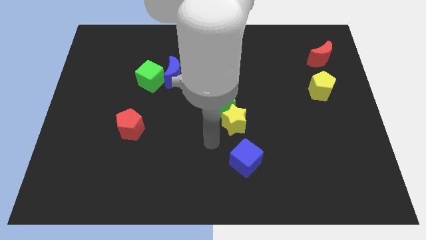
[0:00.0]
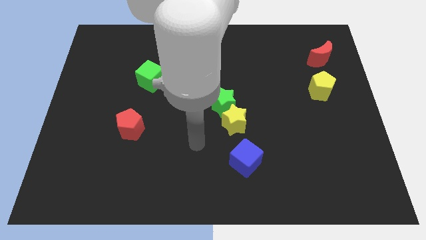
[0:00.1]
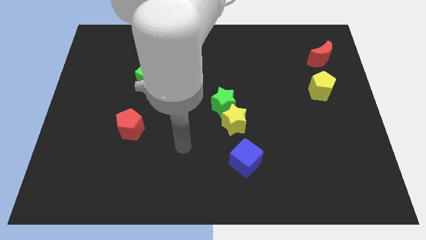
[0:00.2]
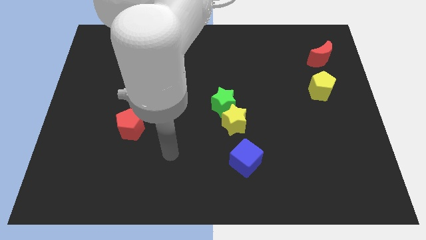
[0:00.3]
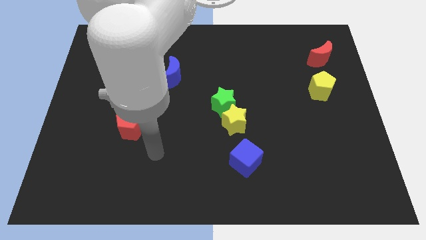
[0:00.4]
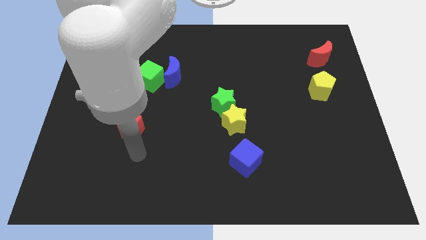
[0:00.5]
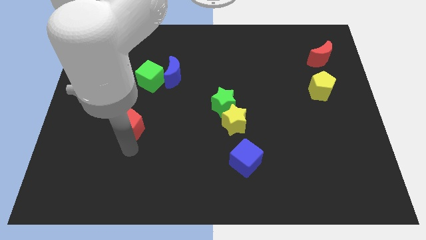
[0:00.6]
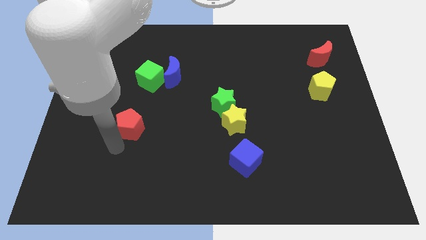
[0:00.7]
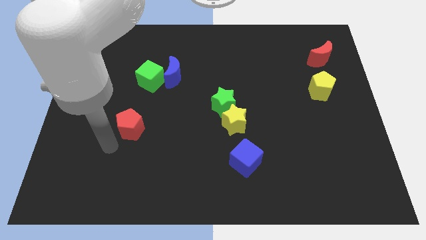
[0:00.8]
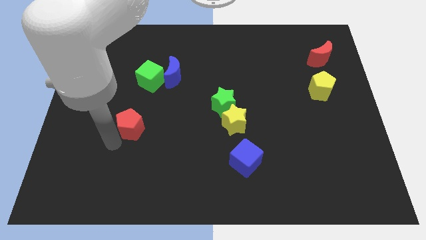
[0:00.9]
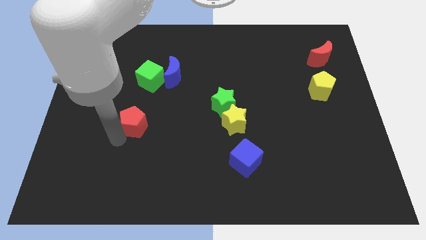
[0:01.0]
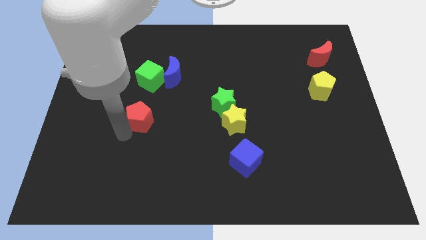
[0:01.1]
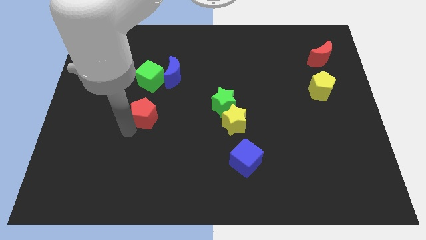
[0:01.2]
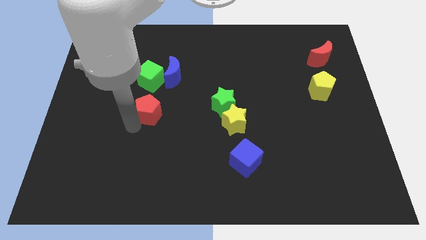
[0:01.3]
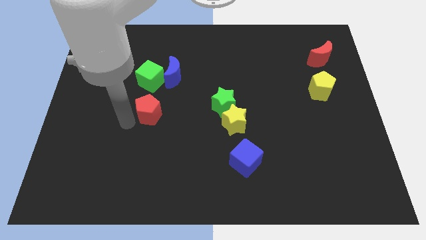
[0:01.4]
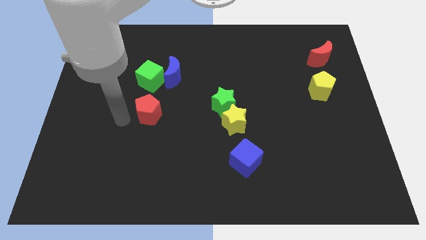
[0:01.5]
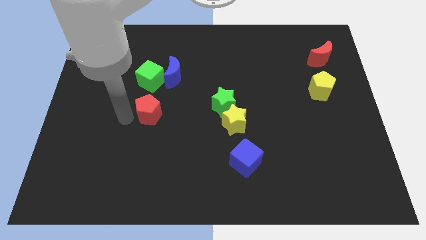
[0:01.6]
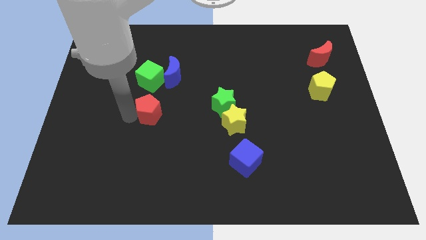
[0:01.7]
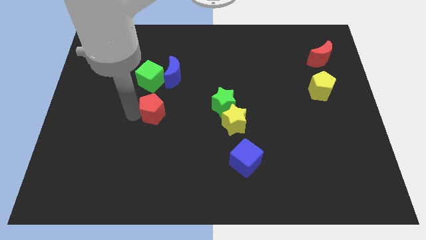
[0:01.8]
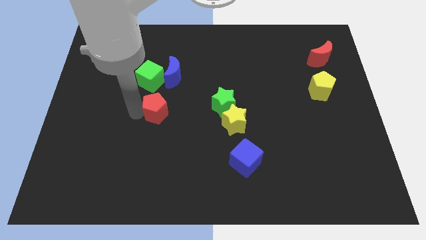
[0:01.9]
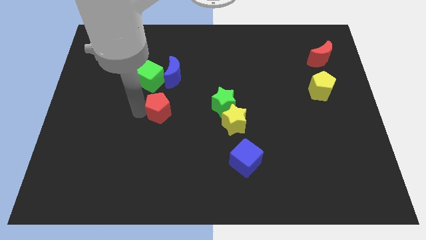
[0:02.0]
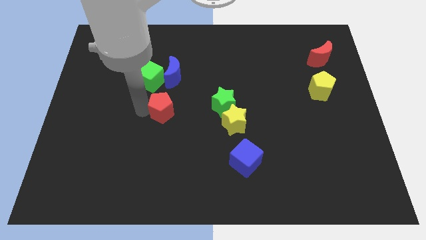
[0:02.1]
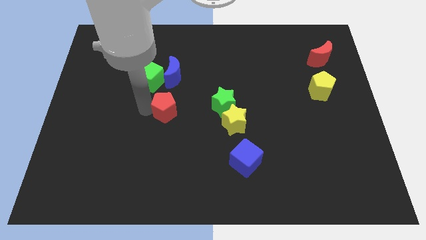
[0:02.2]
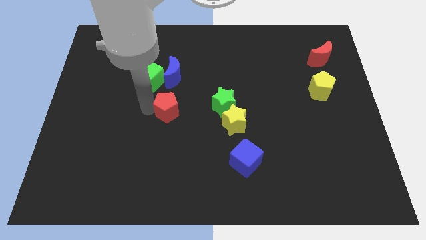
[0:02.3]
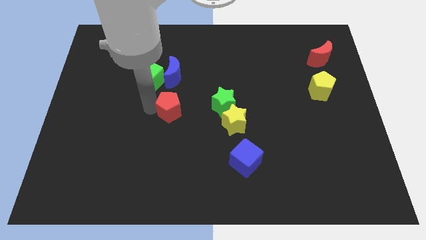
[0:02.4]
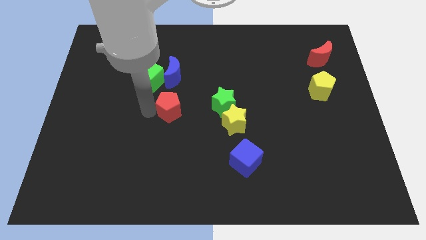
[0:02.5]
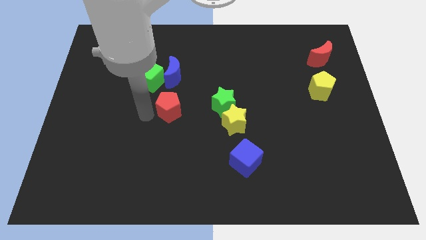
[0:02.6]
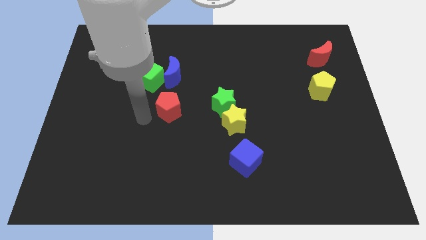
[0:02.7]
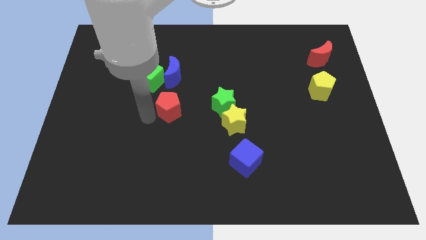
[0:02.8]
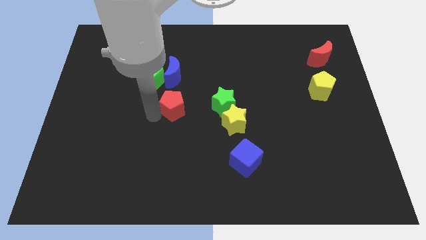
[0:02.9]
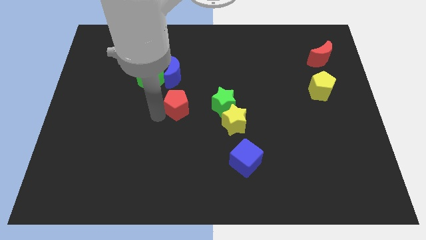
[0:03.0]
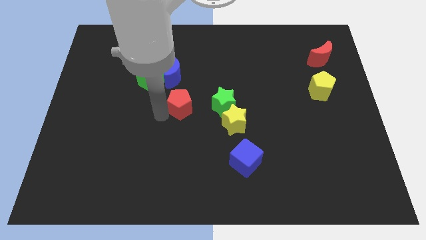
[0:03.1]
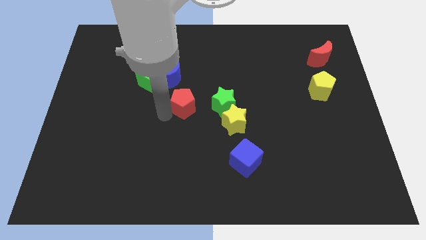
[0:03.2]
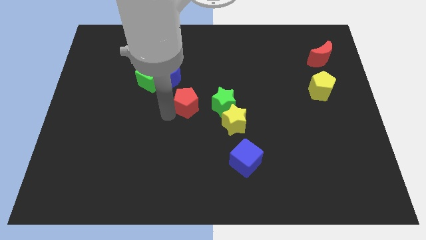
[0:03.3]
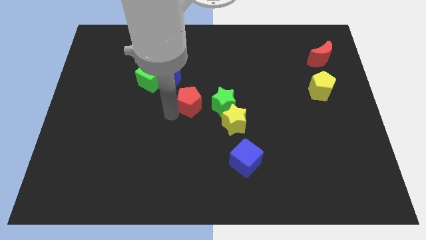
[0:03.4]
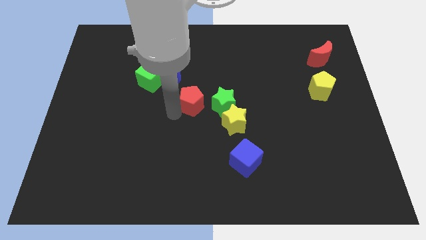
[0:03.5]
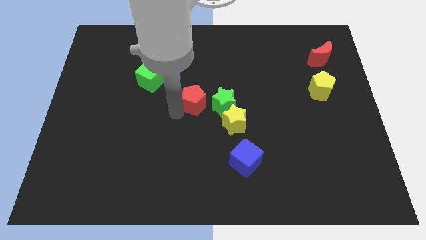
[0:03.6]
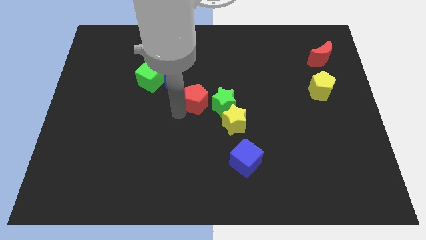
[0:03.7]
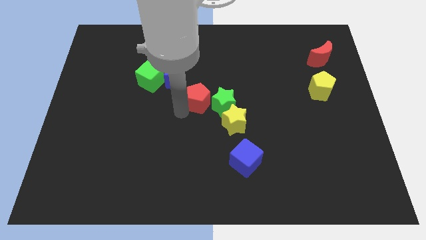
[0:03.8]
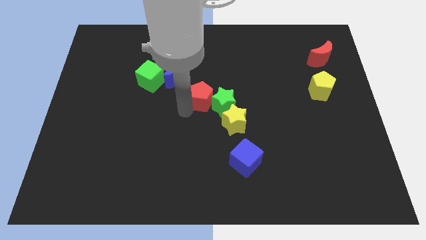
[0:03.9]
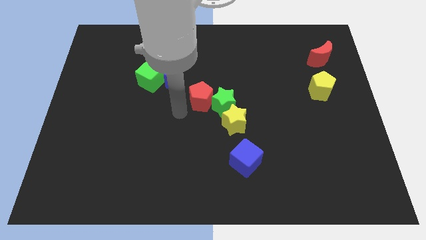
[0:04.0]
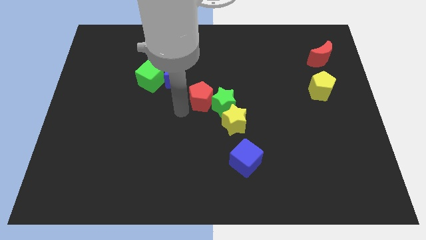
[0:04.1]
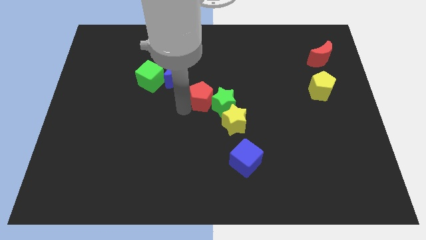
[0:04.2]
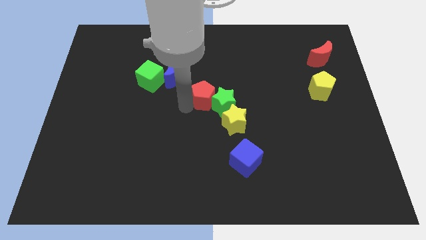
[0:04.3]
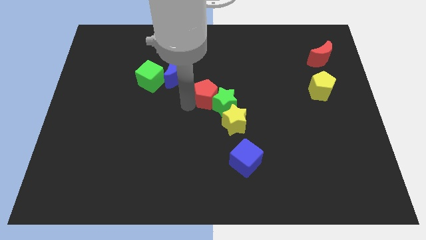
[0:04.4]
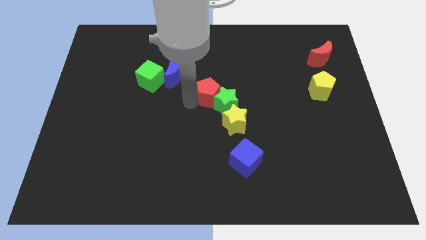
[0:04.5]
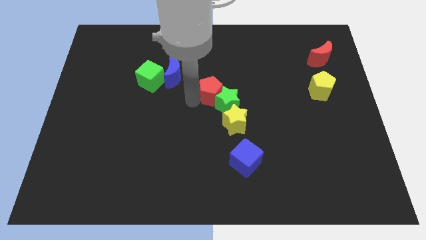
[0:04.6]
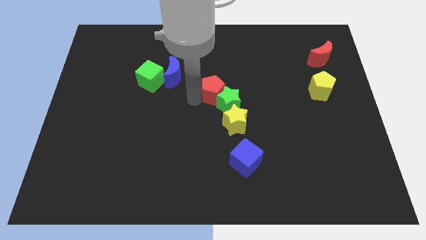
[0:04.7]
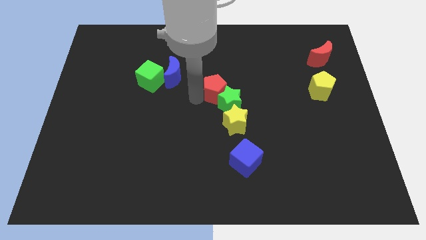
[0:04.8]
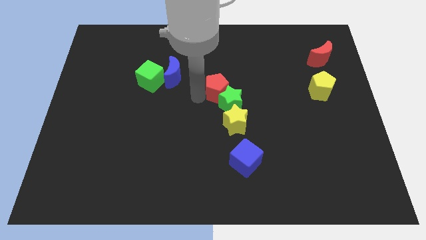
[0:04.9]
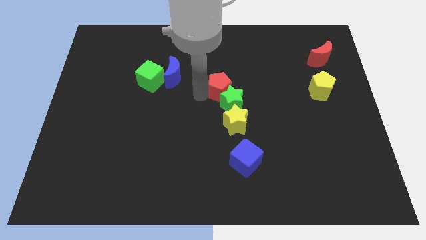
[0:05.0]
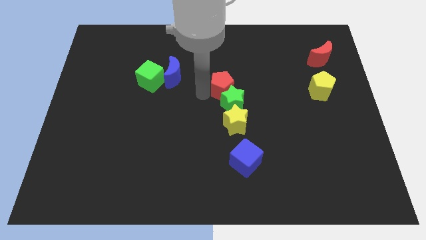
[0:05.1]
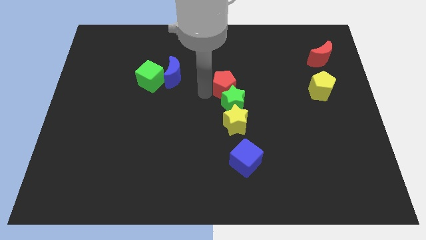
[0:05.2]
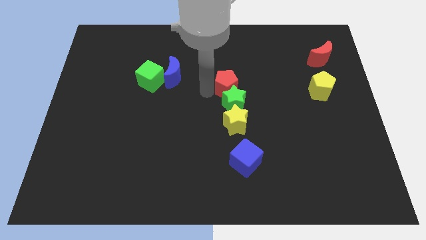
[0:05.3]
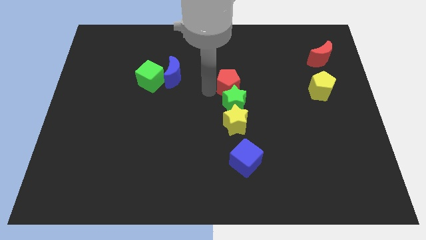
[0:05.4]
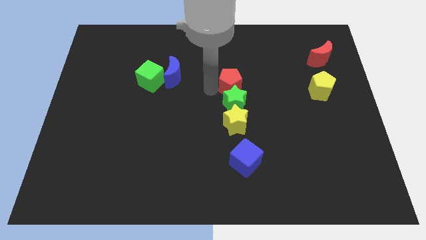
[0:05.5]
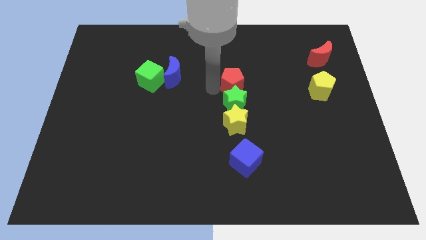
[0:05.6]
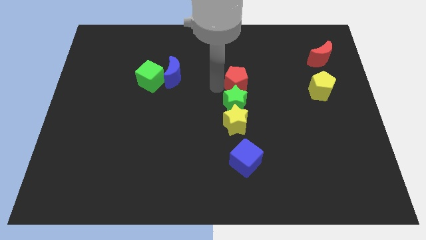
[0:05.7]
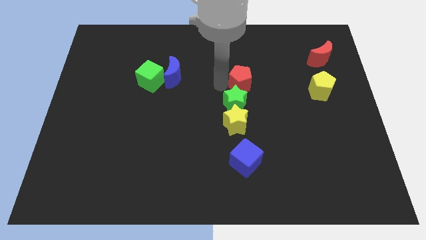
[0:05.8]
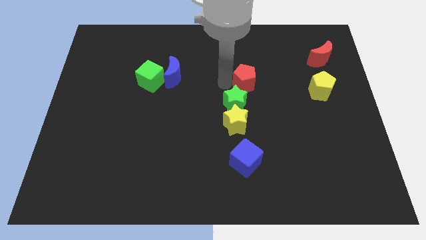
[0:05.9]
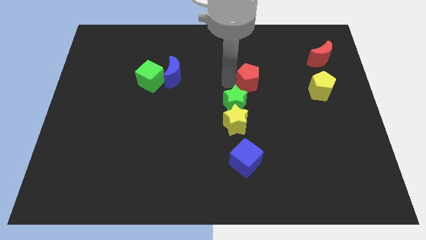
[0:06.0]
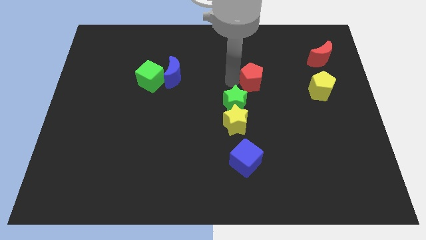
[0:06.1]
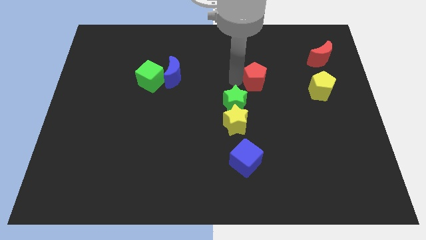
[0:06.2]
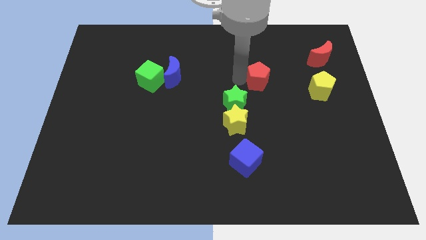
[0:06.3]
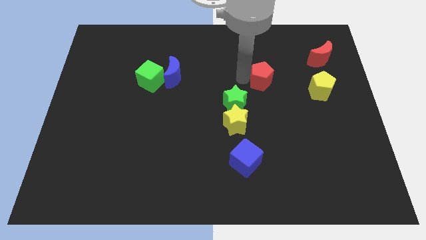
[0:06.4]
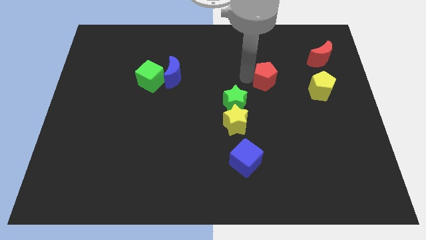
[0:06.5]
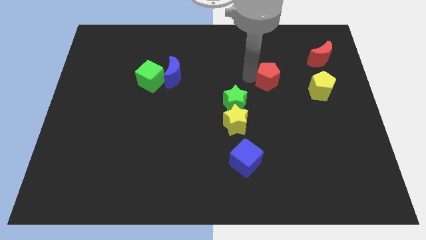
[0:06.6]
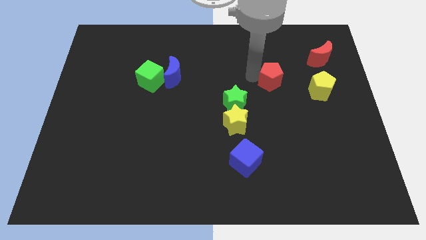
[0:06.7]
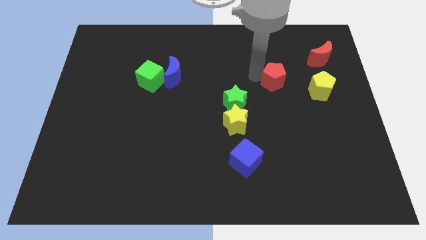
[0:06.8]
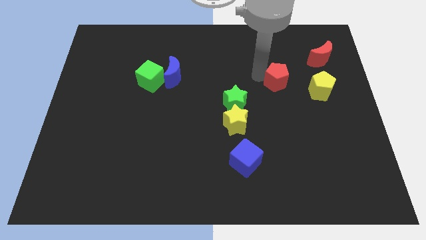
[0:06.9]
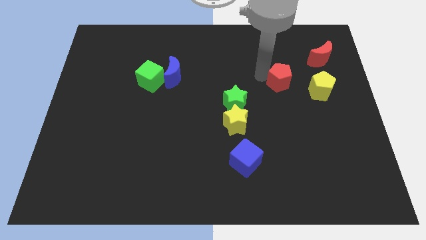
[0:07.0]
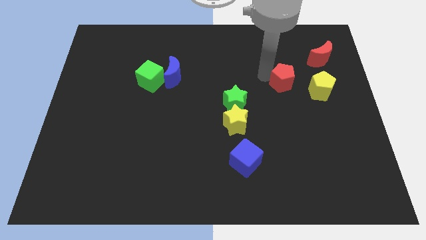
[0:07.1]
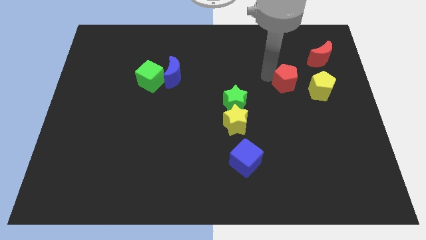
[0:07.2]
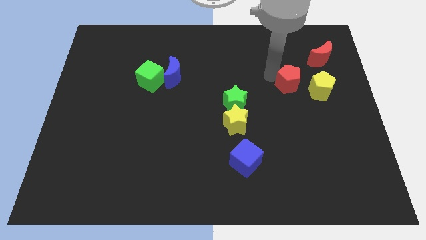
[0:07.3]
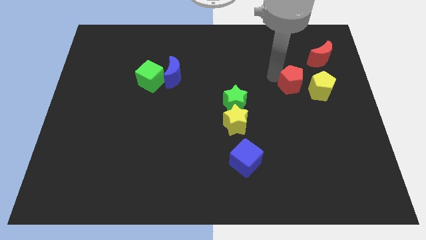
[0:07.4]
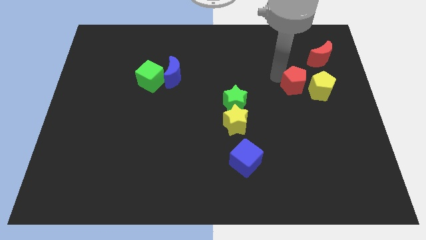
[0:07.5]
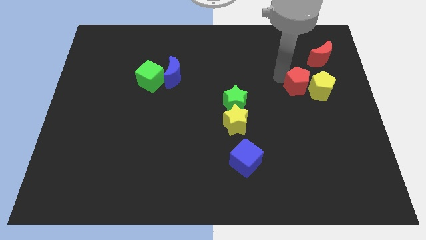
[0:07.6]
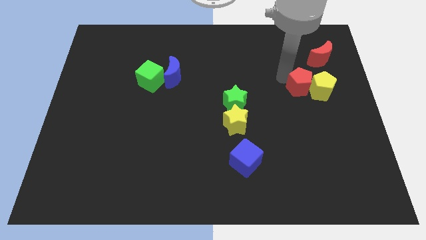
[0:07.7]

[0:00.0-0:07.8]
put the red pentagon to the bottom left side of the yellow pentagon
